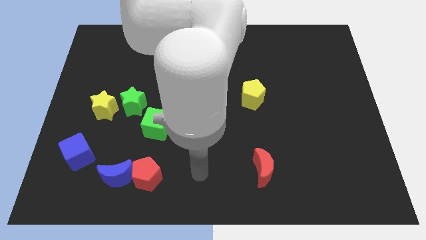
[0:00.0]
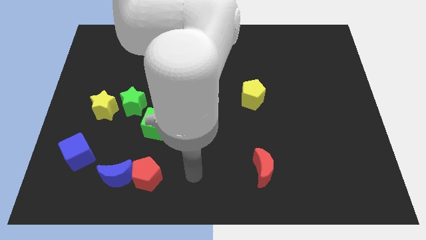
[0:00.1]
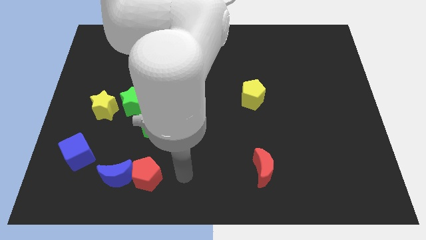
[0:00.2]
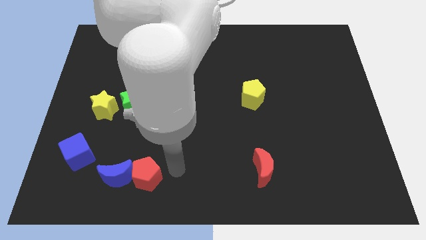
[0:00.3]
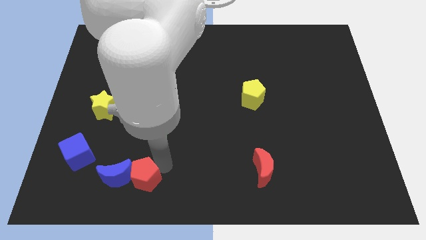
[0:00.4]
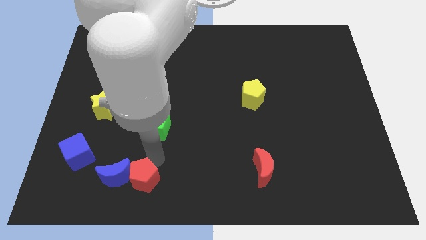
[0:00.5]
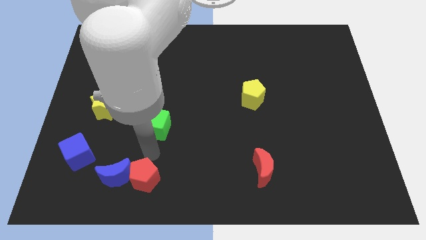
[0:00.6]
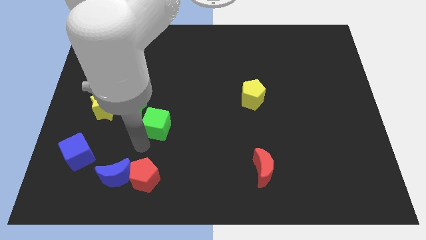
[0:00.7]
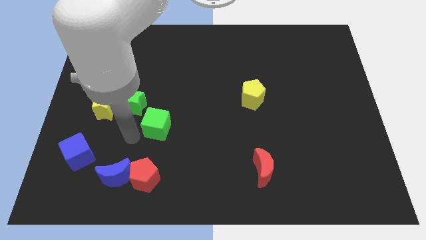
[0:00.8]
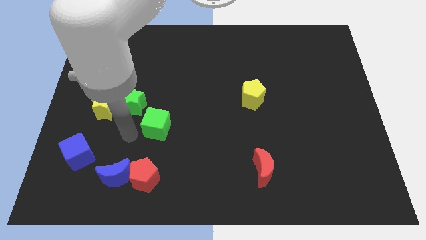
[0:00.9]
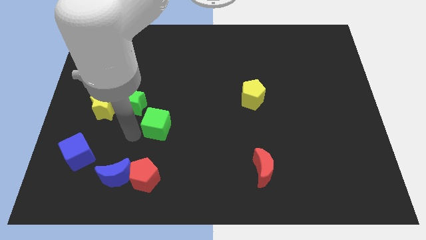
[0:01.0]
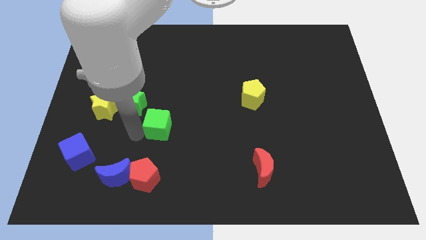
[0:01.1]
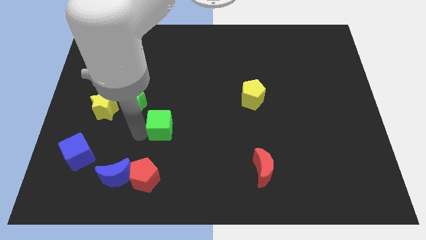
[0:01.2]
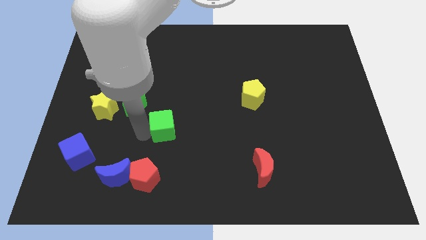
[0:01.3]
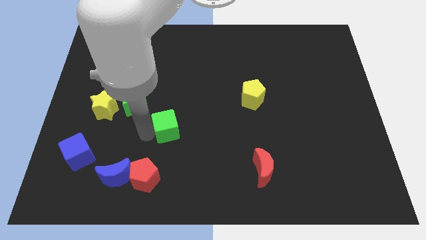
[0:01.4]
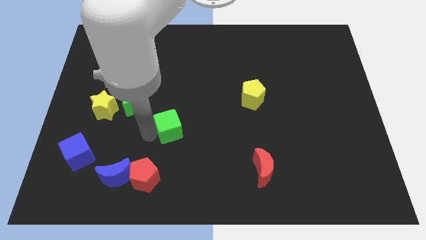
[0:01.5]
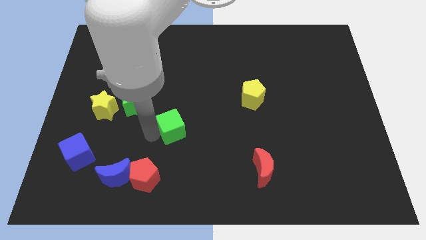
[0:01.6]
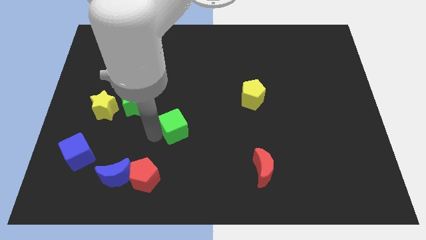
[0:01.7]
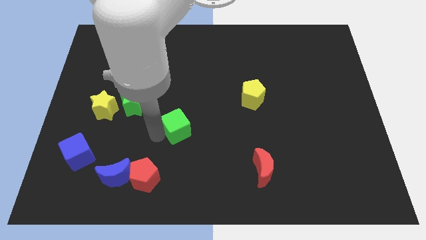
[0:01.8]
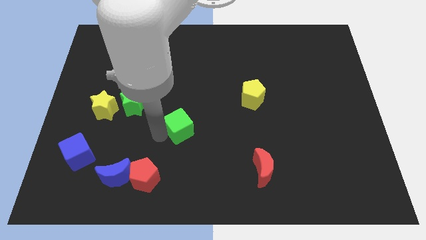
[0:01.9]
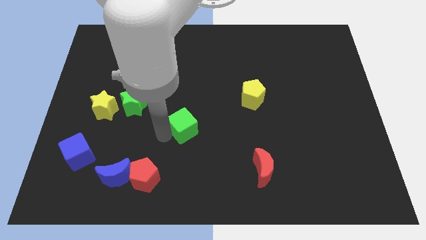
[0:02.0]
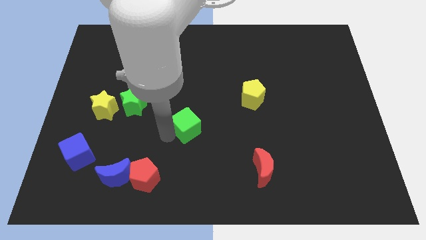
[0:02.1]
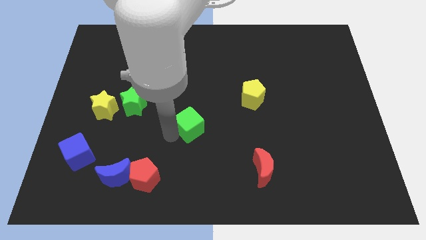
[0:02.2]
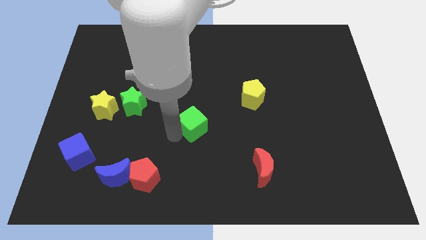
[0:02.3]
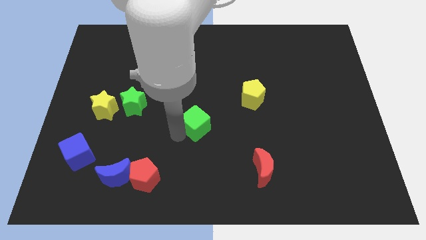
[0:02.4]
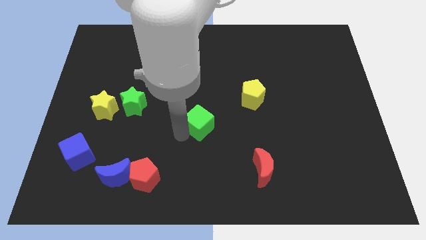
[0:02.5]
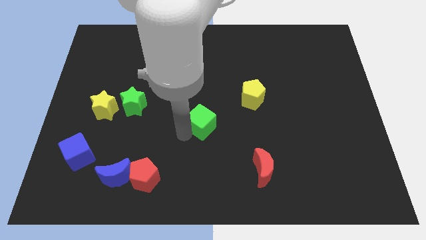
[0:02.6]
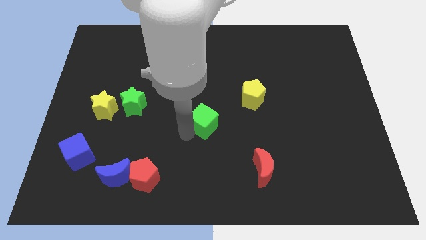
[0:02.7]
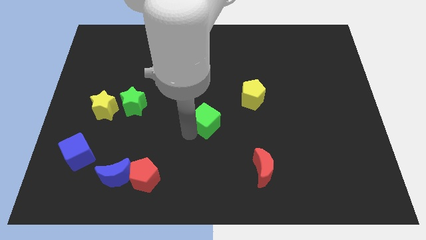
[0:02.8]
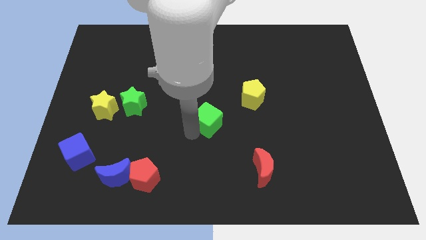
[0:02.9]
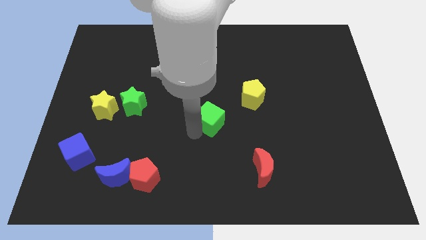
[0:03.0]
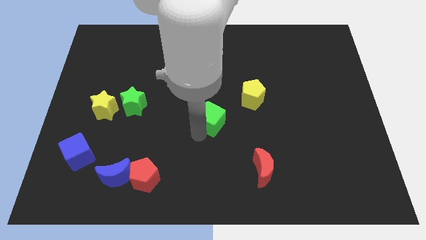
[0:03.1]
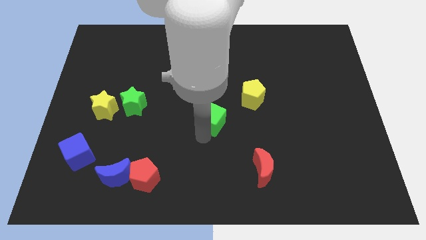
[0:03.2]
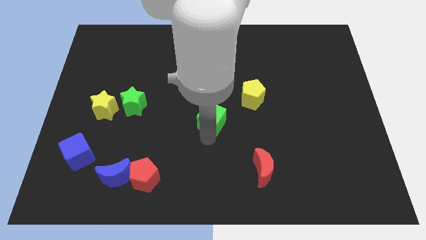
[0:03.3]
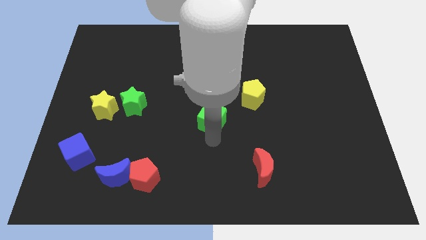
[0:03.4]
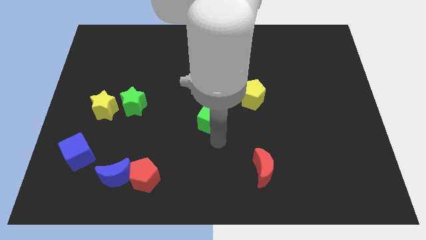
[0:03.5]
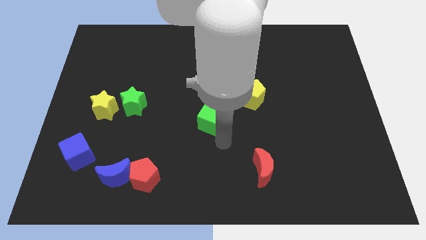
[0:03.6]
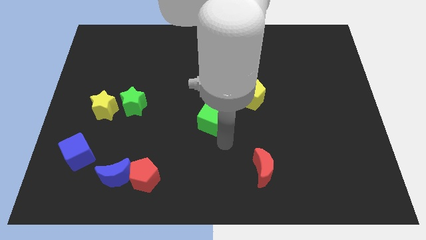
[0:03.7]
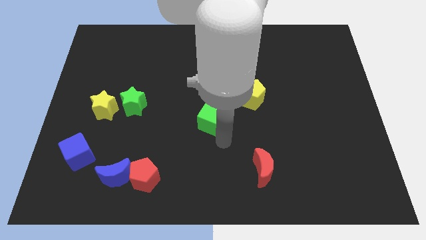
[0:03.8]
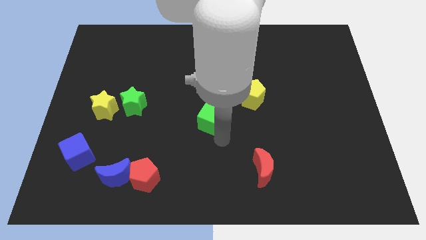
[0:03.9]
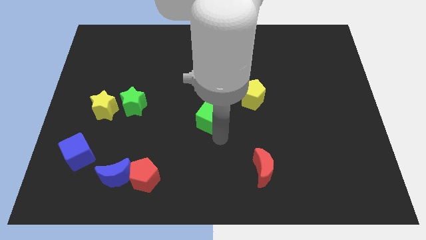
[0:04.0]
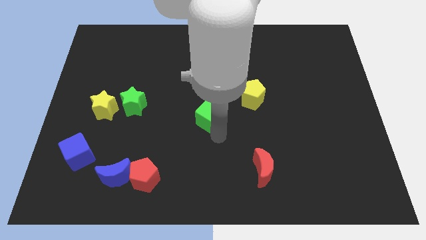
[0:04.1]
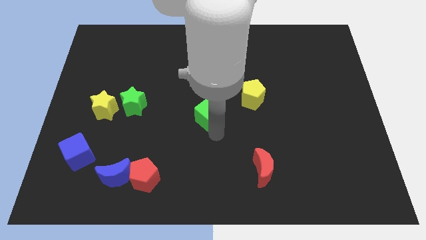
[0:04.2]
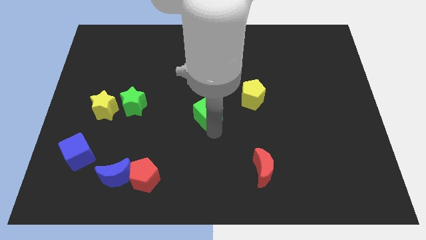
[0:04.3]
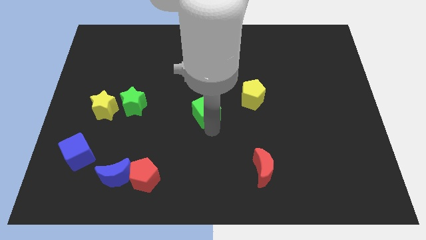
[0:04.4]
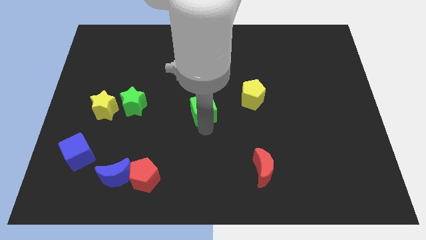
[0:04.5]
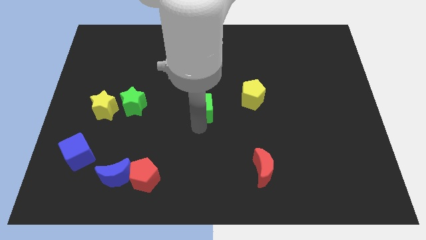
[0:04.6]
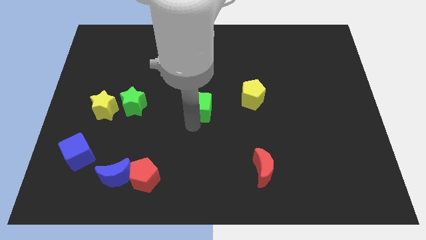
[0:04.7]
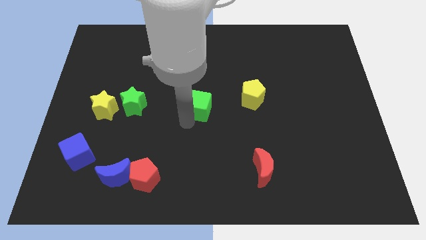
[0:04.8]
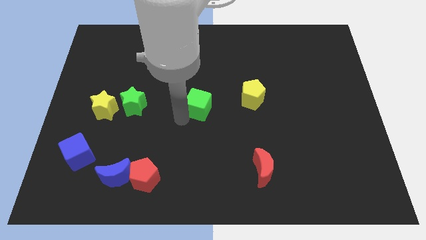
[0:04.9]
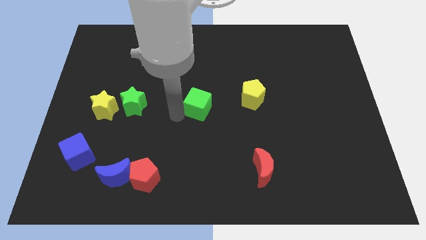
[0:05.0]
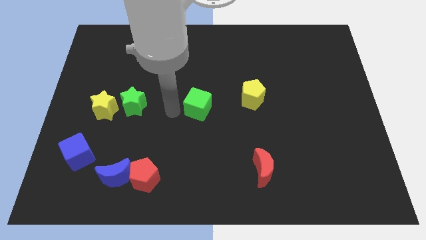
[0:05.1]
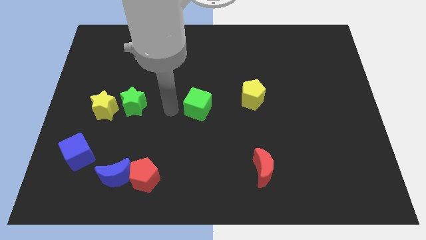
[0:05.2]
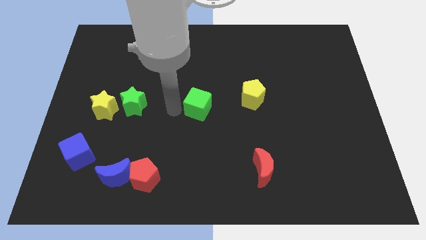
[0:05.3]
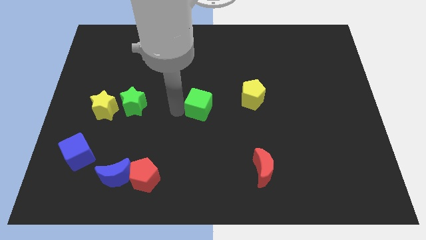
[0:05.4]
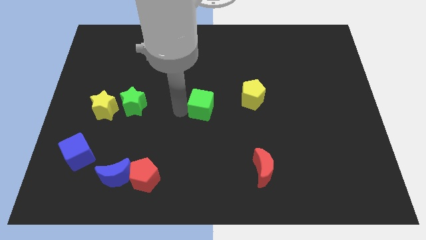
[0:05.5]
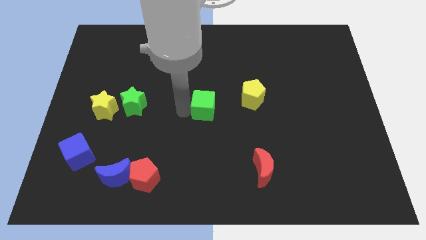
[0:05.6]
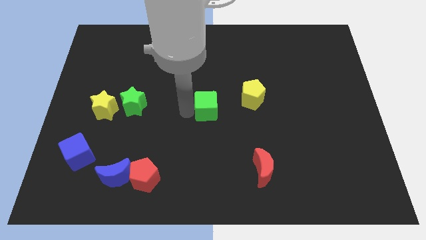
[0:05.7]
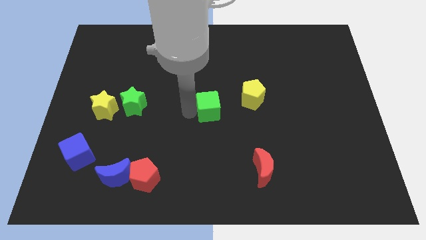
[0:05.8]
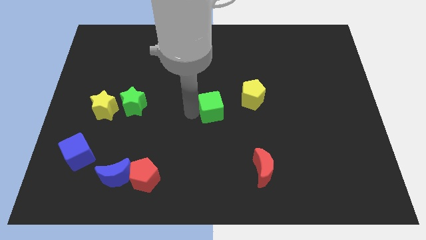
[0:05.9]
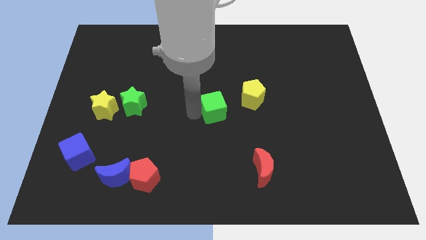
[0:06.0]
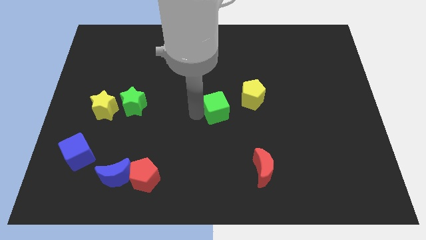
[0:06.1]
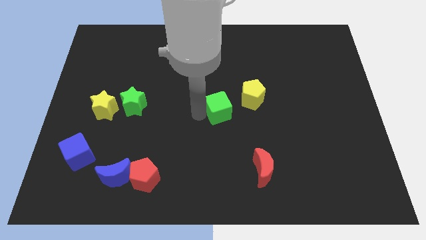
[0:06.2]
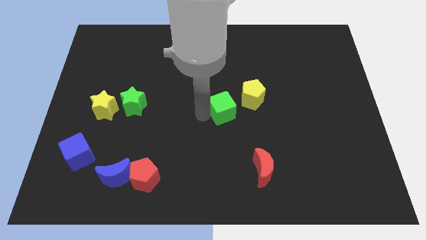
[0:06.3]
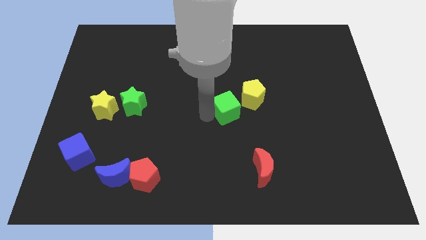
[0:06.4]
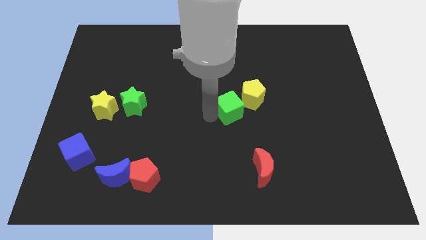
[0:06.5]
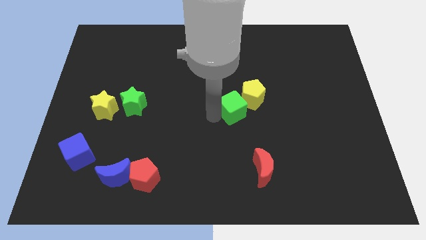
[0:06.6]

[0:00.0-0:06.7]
slide the green cube towards the yellow pentagon
